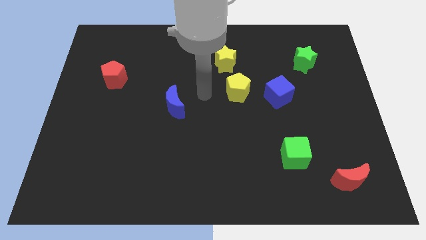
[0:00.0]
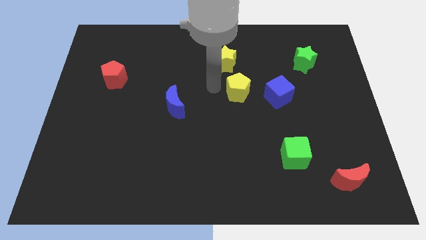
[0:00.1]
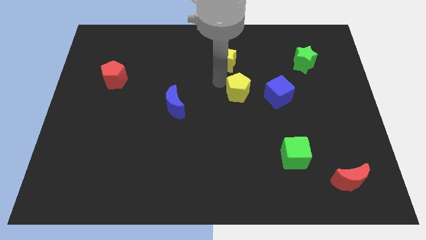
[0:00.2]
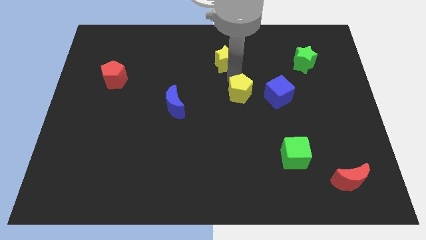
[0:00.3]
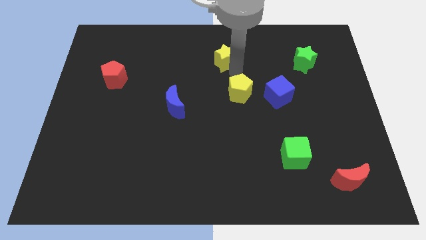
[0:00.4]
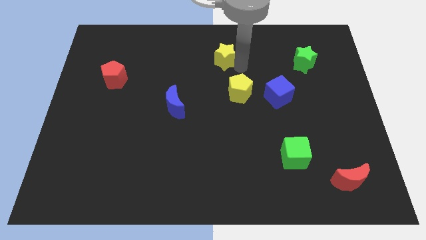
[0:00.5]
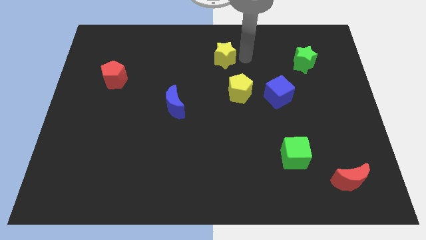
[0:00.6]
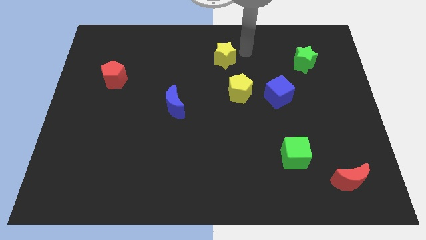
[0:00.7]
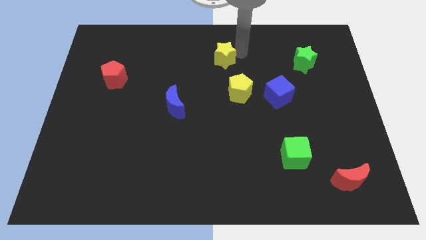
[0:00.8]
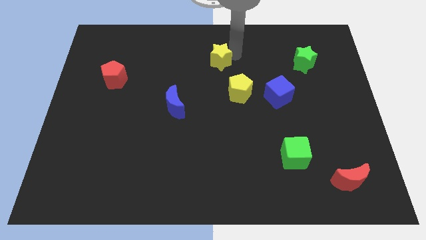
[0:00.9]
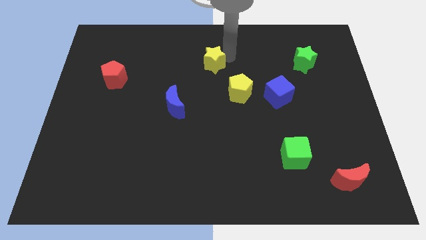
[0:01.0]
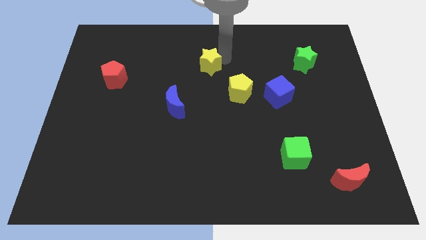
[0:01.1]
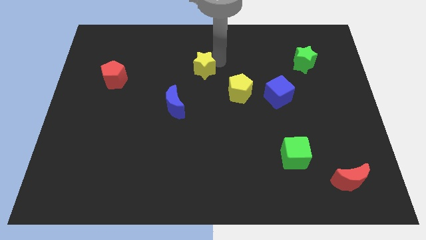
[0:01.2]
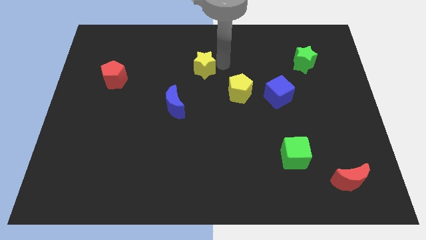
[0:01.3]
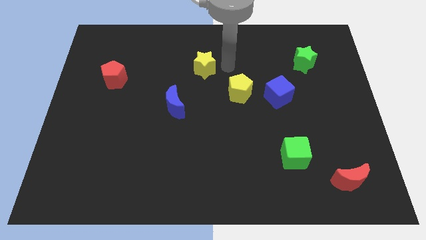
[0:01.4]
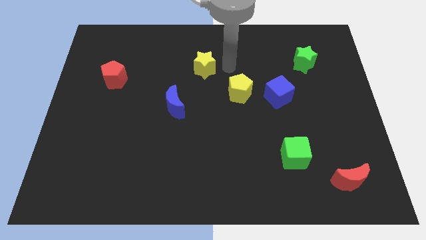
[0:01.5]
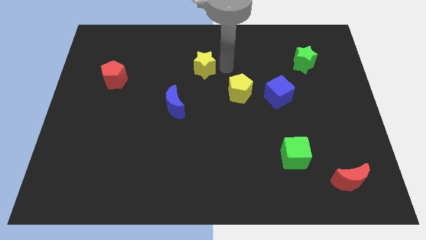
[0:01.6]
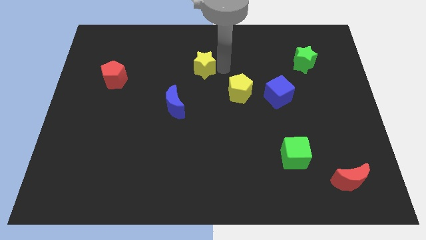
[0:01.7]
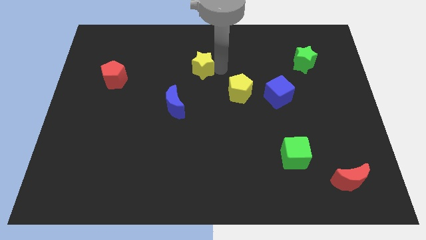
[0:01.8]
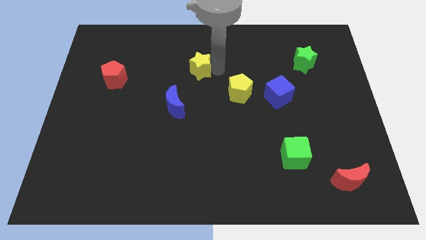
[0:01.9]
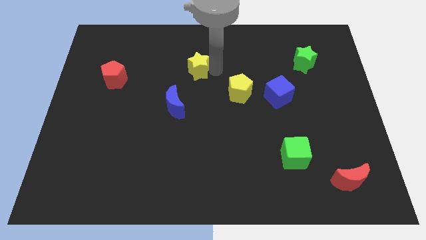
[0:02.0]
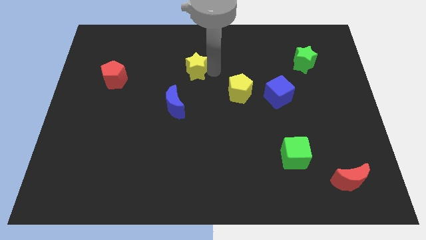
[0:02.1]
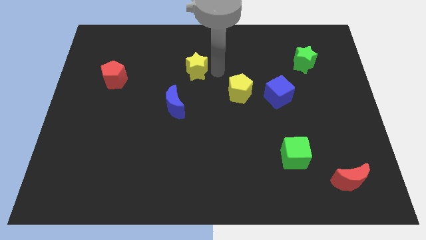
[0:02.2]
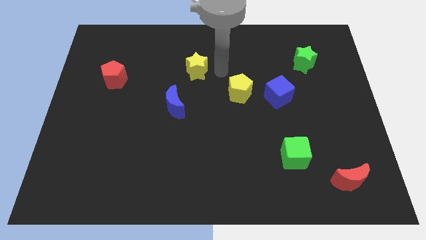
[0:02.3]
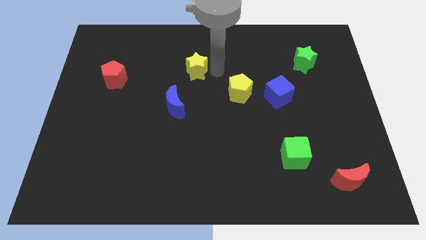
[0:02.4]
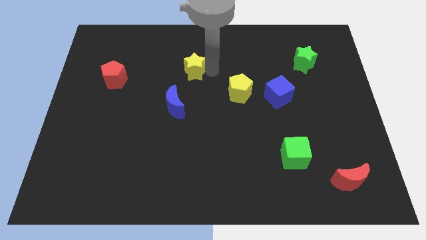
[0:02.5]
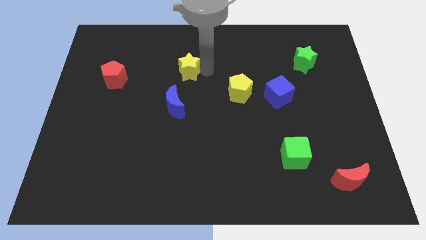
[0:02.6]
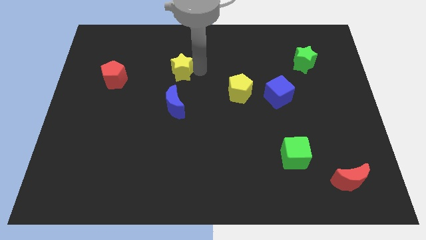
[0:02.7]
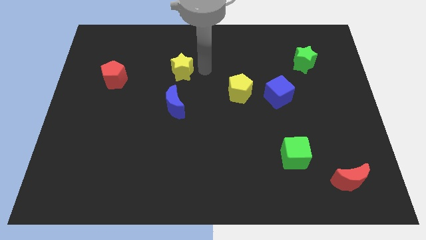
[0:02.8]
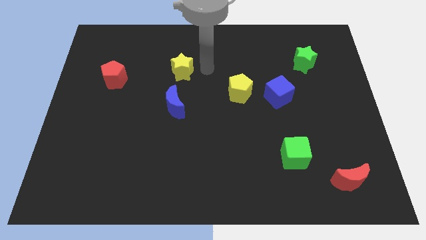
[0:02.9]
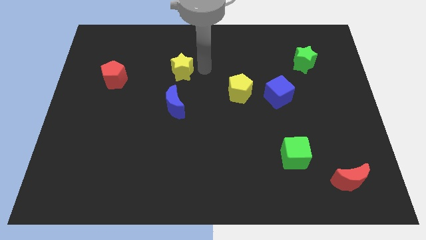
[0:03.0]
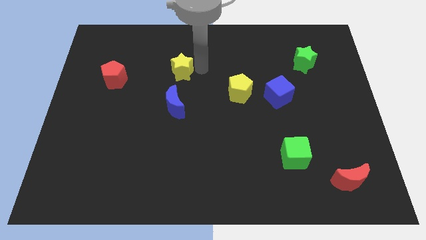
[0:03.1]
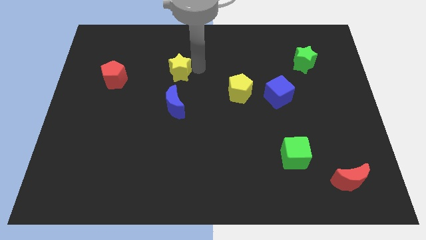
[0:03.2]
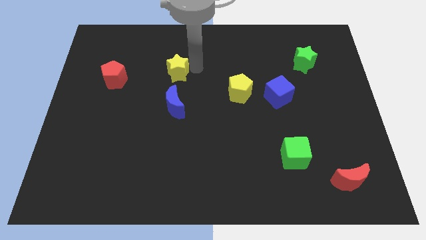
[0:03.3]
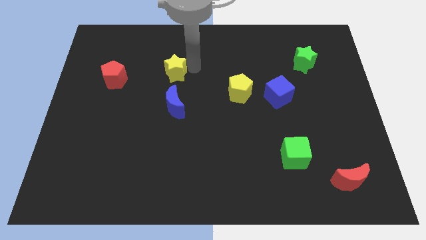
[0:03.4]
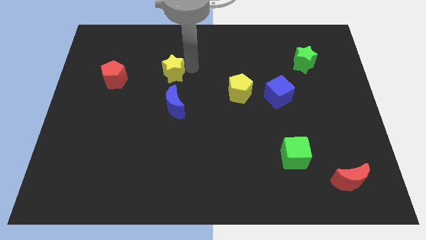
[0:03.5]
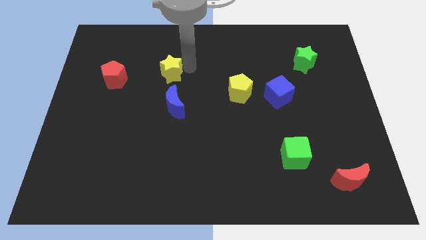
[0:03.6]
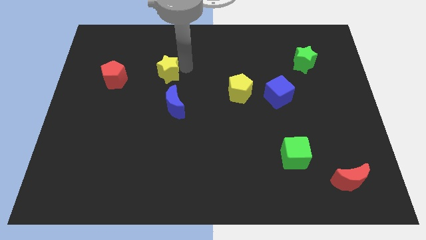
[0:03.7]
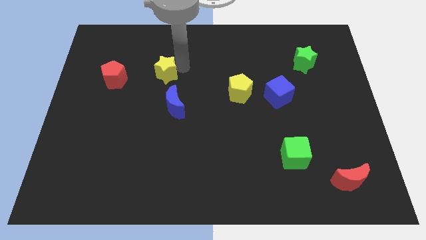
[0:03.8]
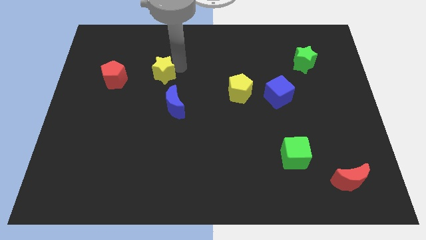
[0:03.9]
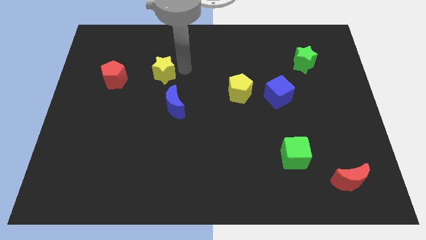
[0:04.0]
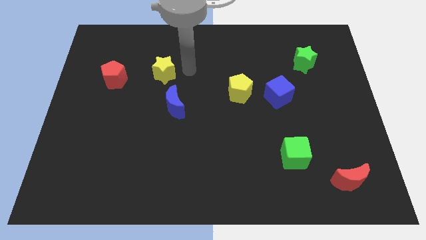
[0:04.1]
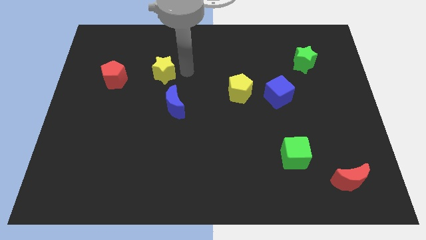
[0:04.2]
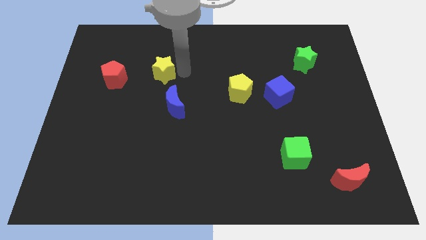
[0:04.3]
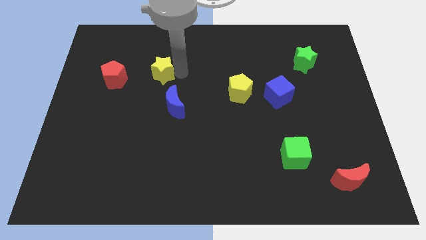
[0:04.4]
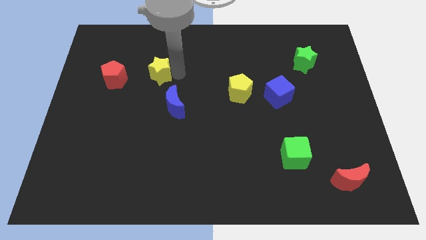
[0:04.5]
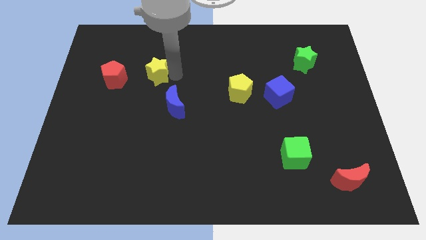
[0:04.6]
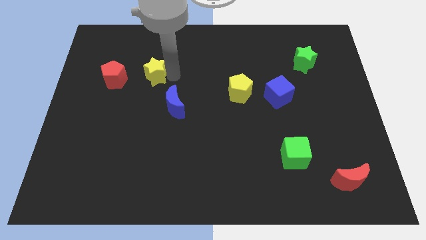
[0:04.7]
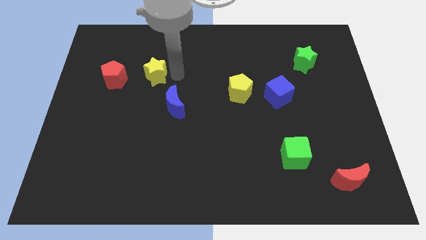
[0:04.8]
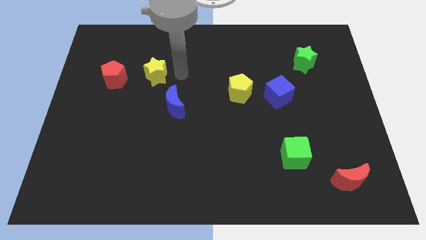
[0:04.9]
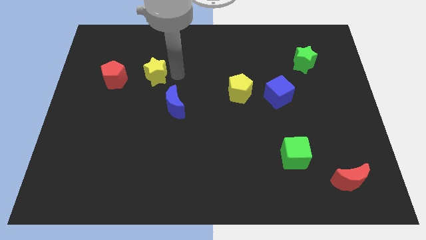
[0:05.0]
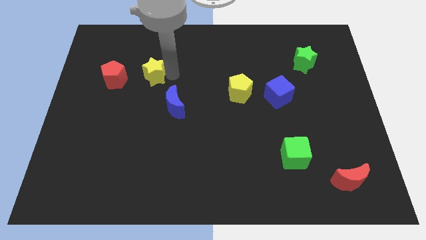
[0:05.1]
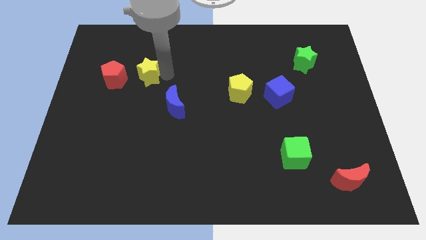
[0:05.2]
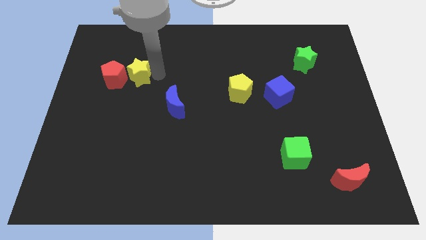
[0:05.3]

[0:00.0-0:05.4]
put the yellow star towards the red pentagon

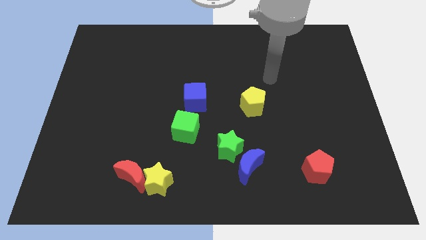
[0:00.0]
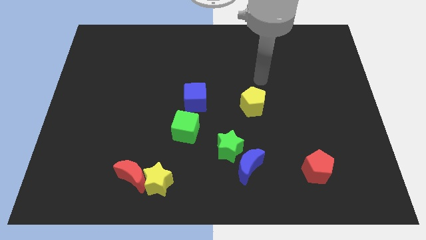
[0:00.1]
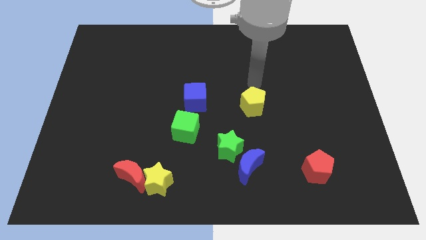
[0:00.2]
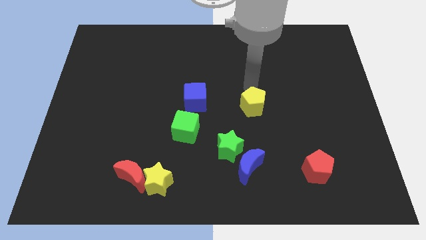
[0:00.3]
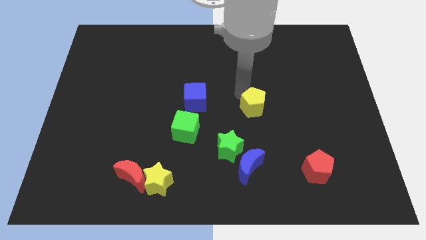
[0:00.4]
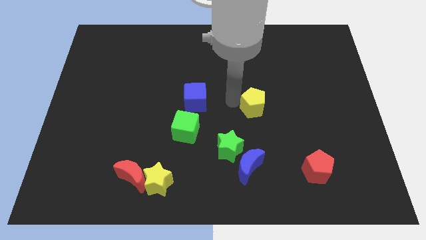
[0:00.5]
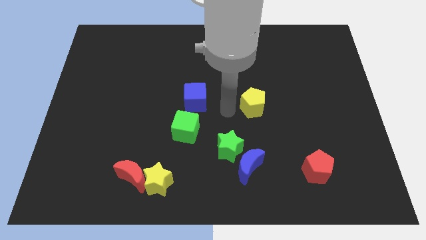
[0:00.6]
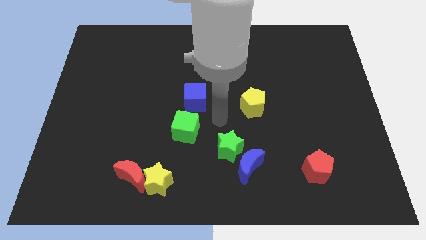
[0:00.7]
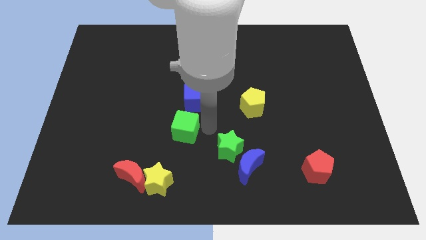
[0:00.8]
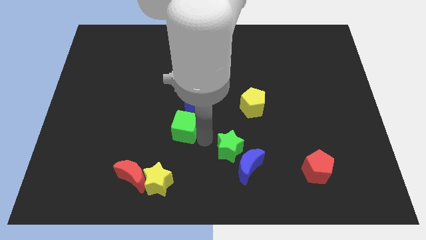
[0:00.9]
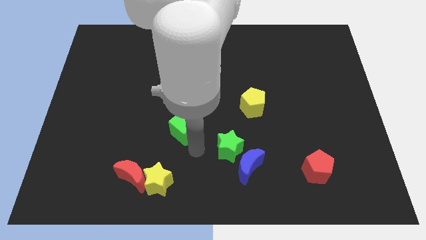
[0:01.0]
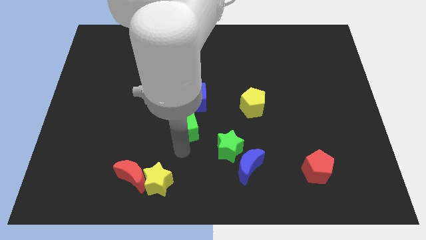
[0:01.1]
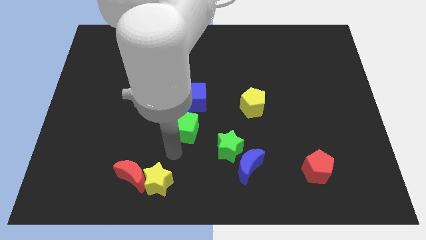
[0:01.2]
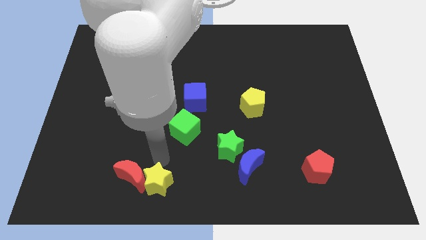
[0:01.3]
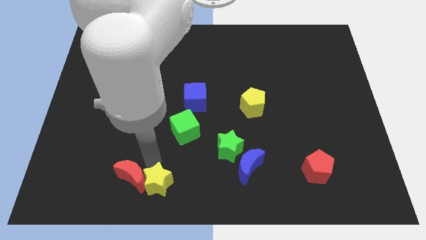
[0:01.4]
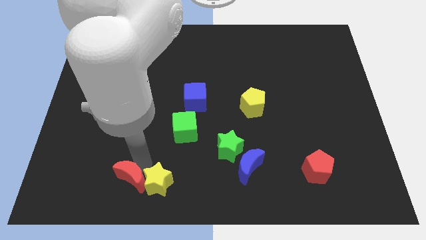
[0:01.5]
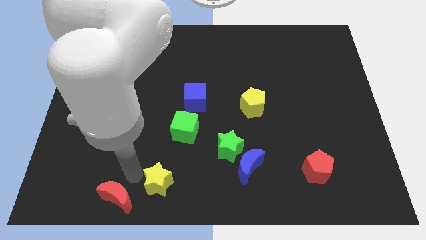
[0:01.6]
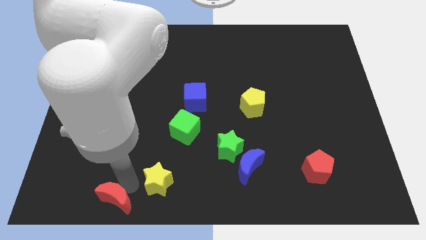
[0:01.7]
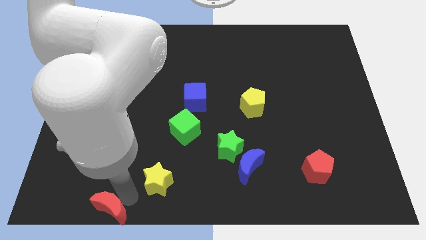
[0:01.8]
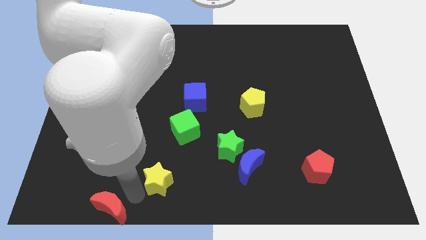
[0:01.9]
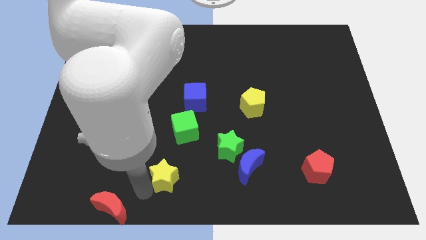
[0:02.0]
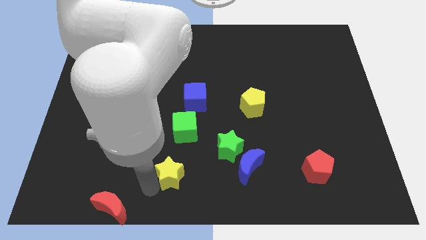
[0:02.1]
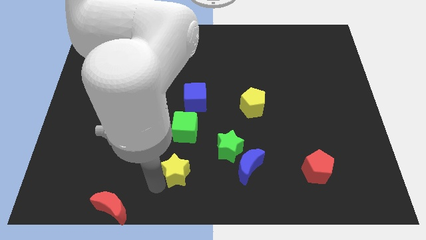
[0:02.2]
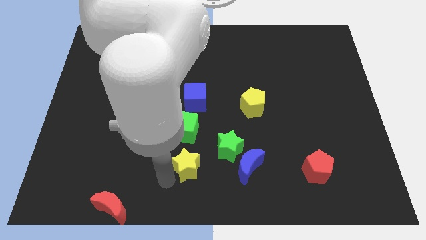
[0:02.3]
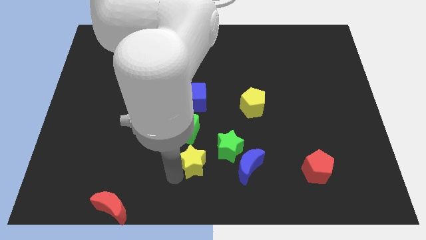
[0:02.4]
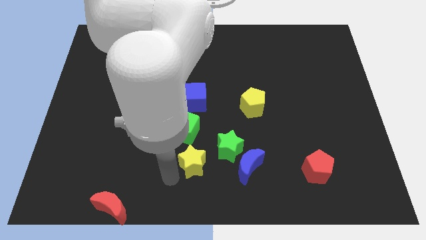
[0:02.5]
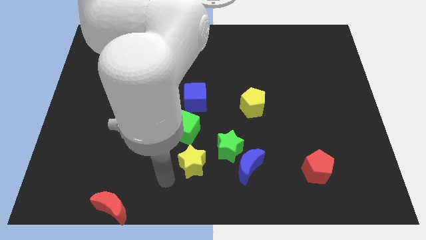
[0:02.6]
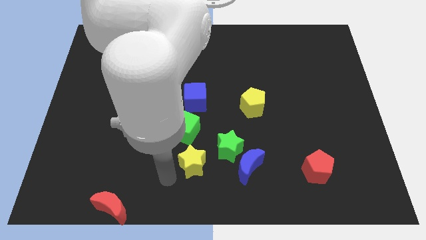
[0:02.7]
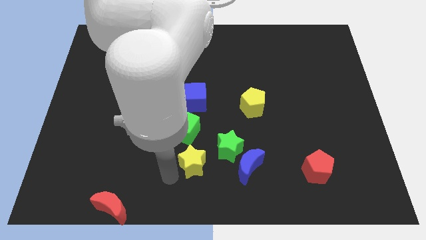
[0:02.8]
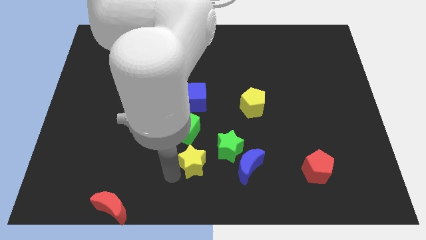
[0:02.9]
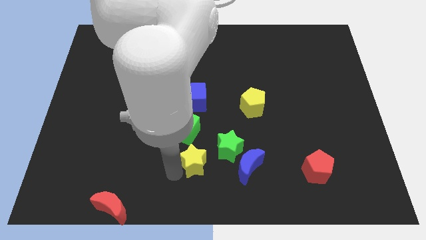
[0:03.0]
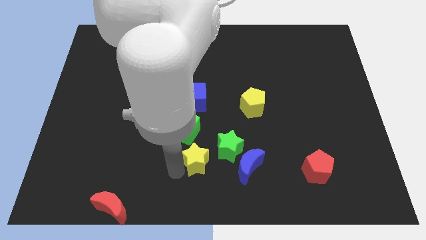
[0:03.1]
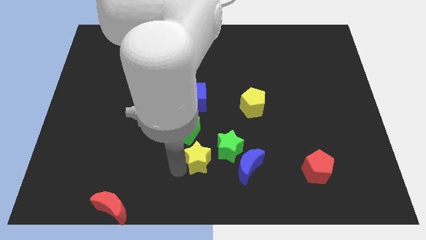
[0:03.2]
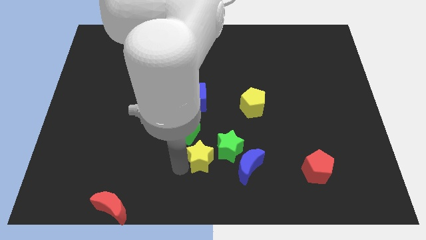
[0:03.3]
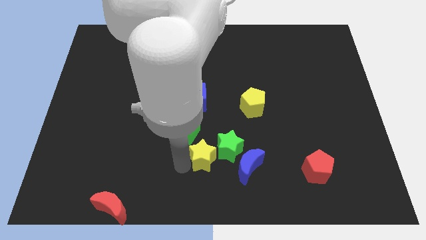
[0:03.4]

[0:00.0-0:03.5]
push the yellow star towards the green star
